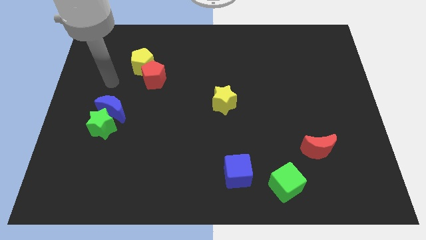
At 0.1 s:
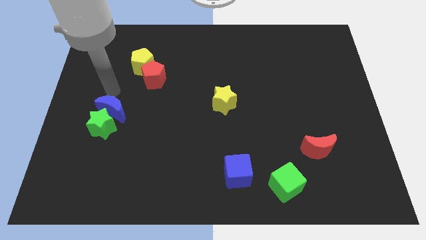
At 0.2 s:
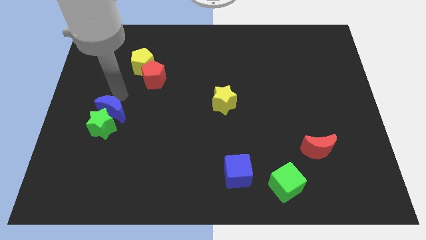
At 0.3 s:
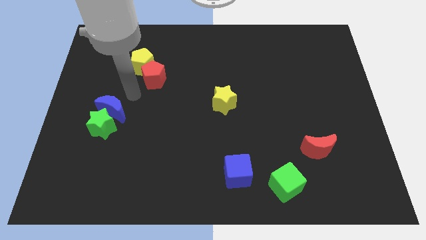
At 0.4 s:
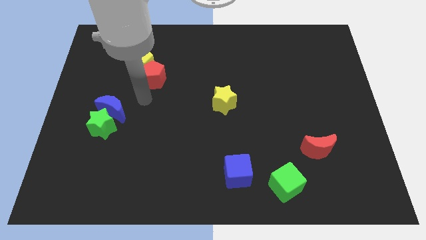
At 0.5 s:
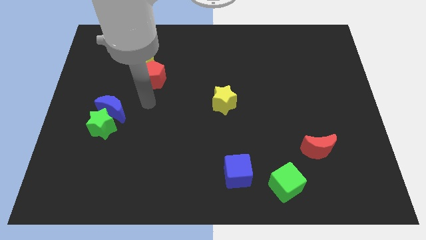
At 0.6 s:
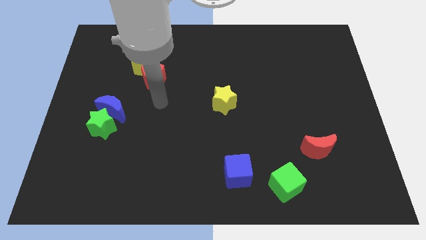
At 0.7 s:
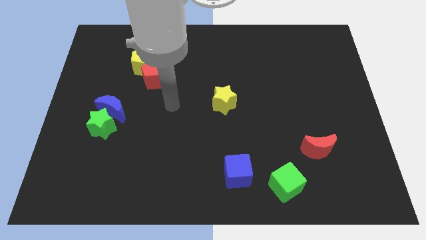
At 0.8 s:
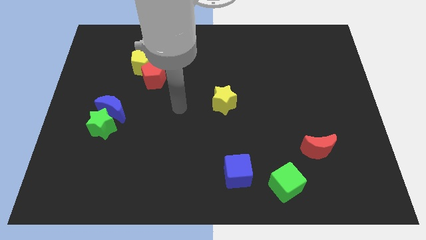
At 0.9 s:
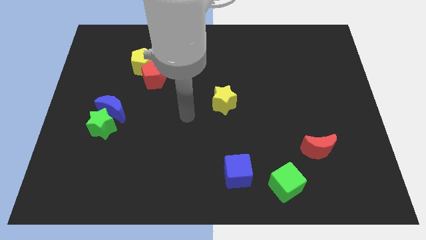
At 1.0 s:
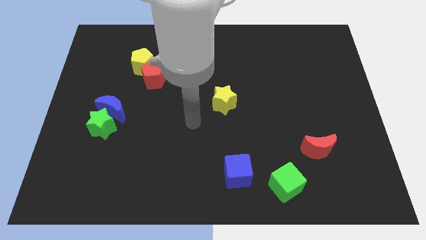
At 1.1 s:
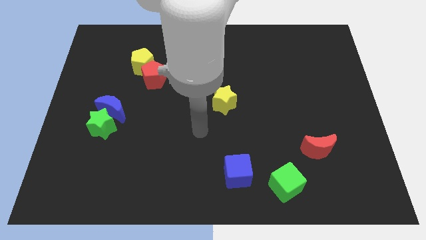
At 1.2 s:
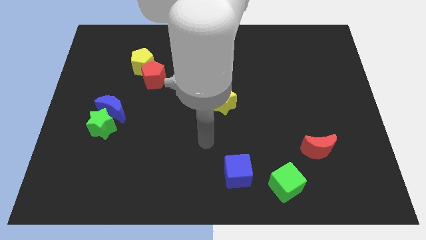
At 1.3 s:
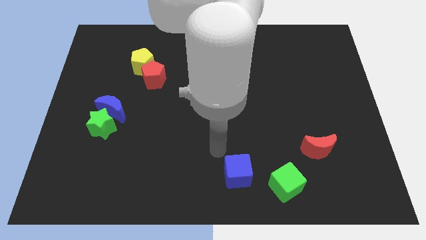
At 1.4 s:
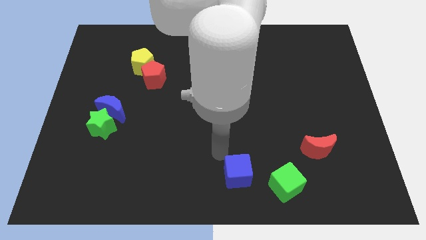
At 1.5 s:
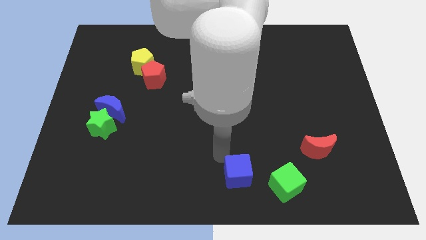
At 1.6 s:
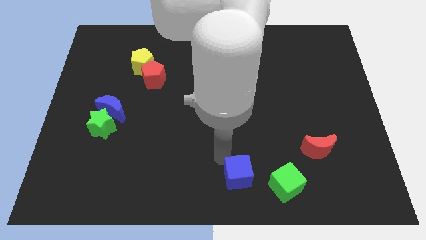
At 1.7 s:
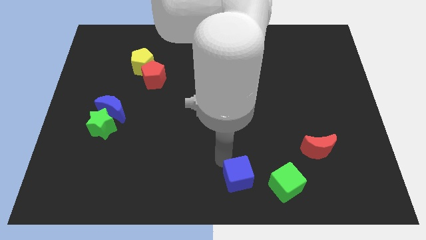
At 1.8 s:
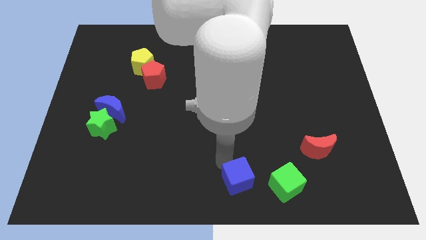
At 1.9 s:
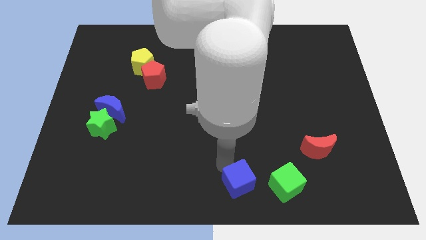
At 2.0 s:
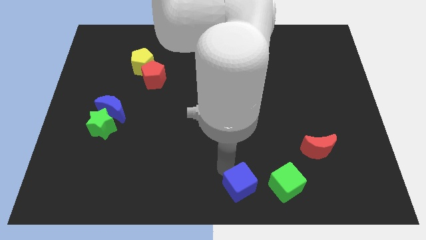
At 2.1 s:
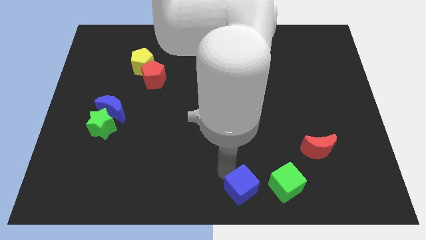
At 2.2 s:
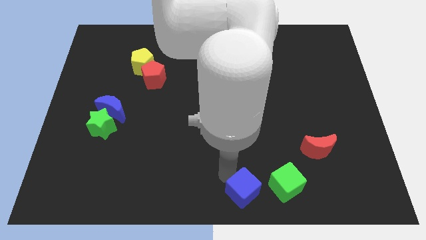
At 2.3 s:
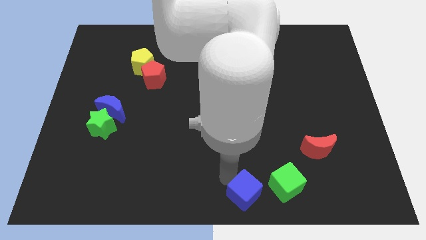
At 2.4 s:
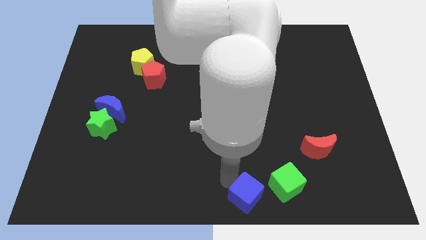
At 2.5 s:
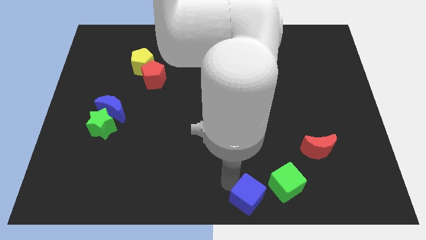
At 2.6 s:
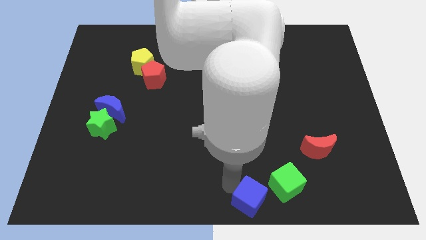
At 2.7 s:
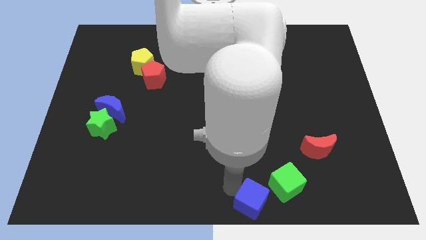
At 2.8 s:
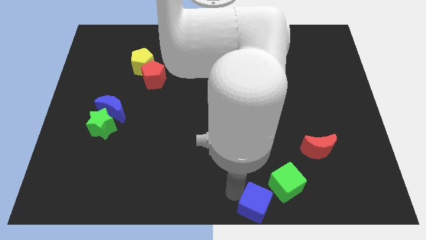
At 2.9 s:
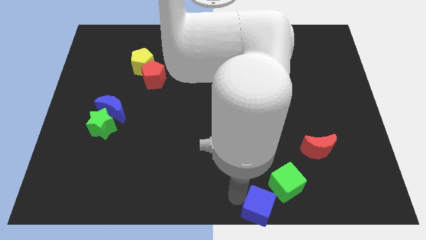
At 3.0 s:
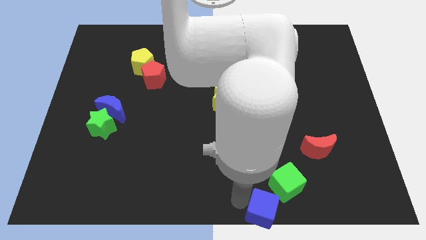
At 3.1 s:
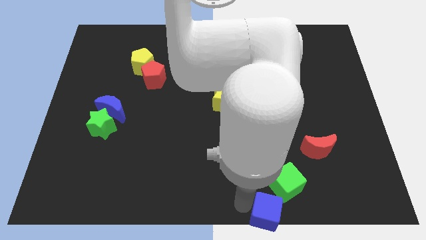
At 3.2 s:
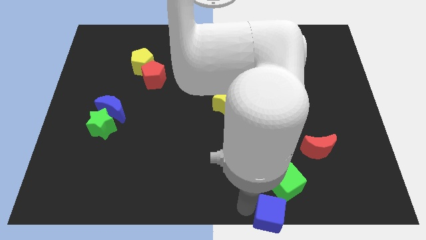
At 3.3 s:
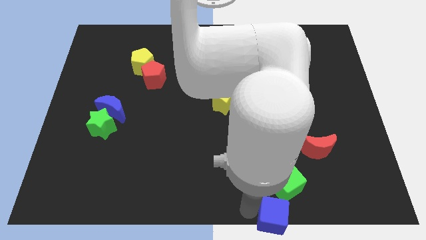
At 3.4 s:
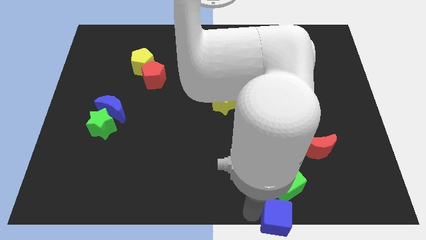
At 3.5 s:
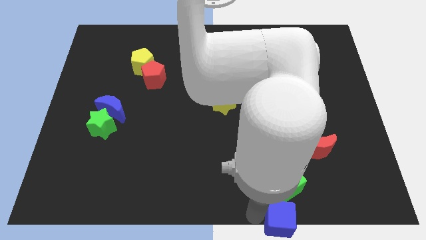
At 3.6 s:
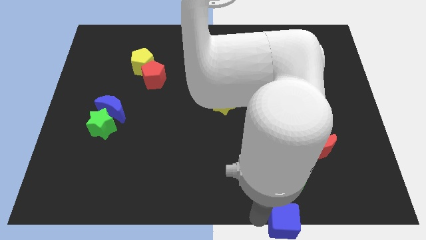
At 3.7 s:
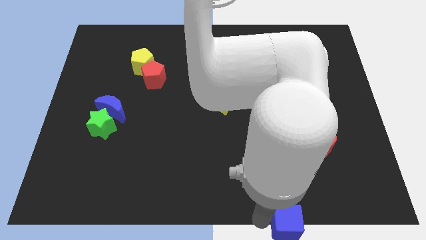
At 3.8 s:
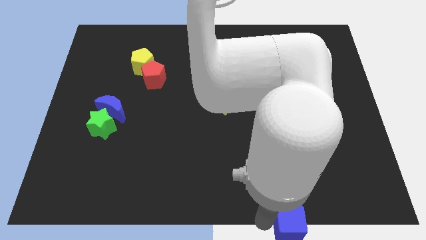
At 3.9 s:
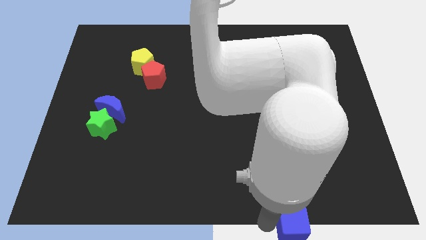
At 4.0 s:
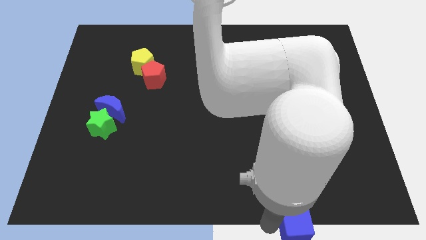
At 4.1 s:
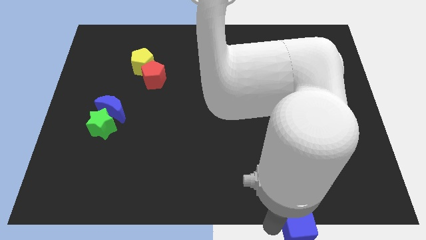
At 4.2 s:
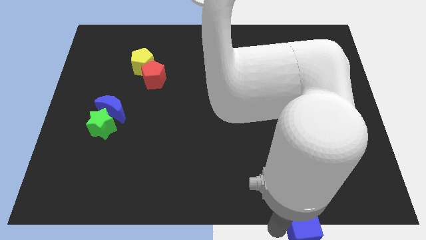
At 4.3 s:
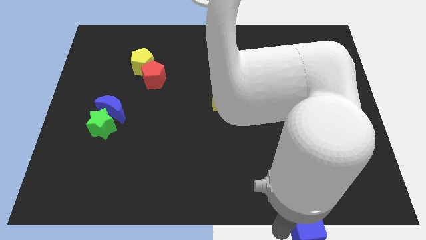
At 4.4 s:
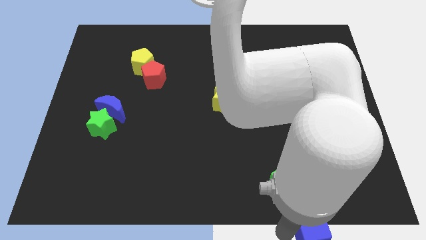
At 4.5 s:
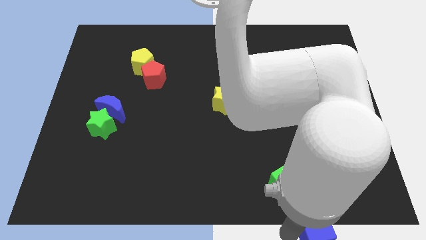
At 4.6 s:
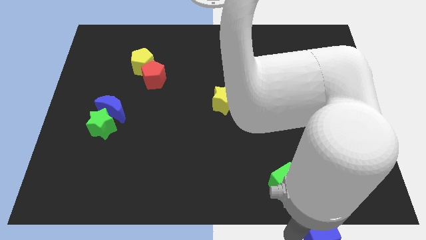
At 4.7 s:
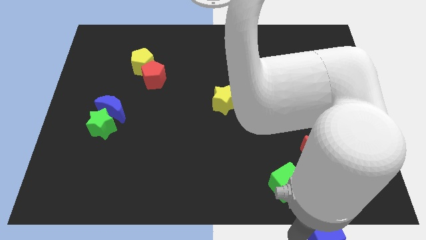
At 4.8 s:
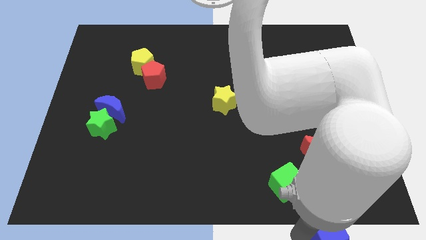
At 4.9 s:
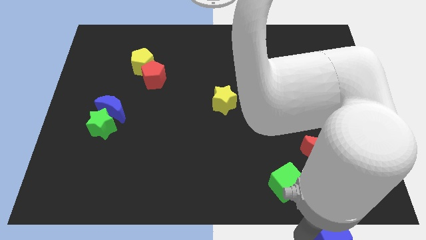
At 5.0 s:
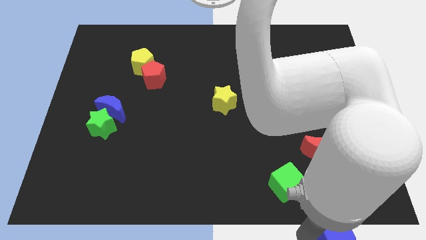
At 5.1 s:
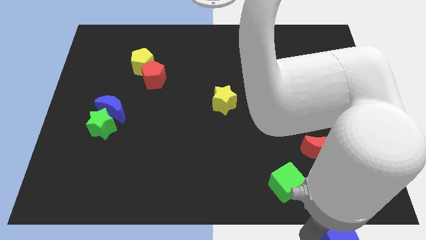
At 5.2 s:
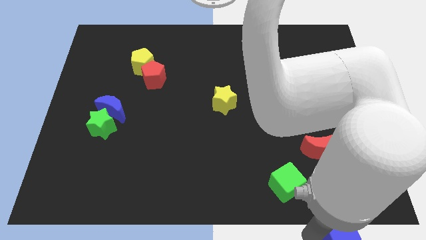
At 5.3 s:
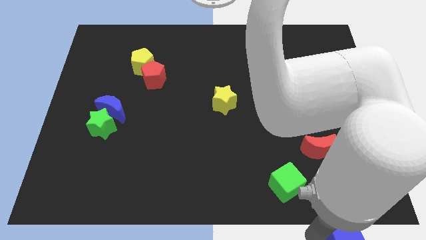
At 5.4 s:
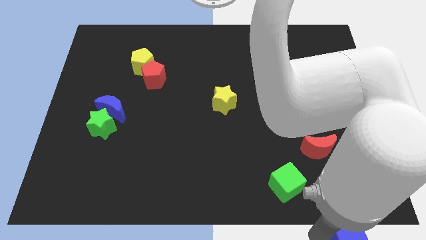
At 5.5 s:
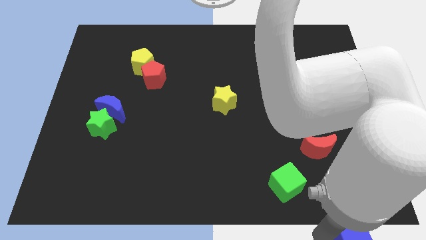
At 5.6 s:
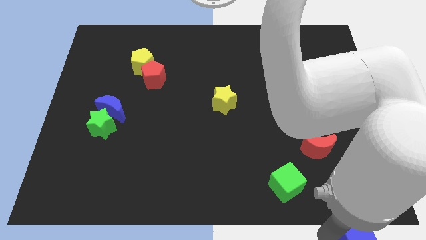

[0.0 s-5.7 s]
push the blue cube to the bottom right corner

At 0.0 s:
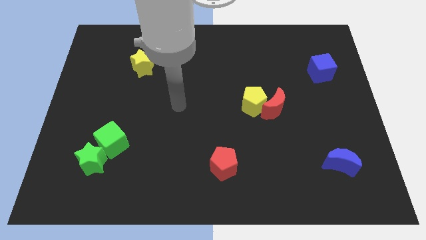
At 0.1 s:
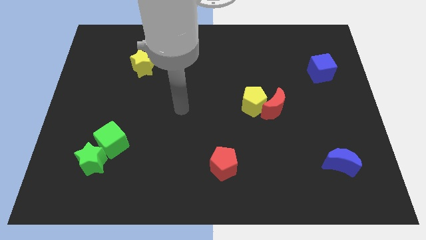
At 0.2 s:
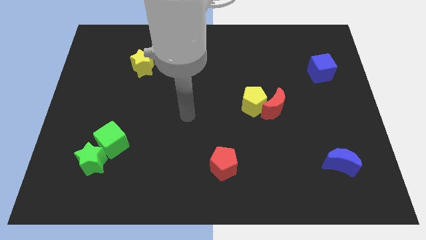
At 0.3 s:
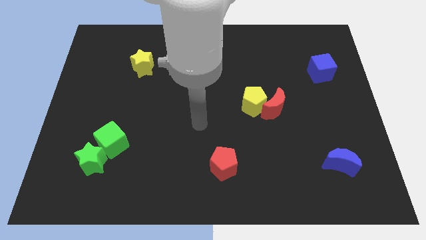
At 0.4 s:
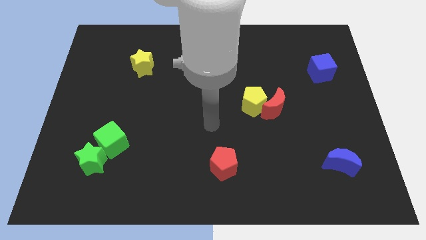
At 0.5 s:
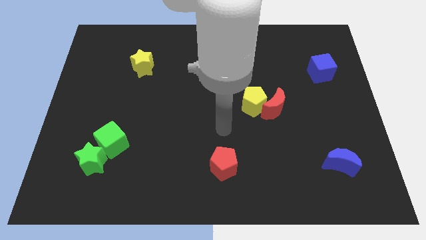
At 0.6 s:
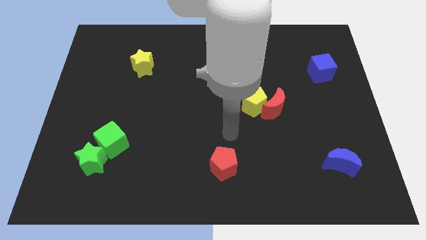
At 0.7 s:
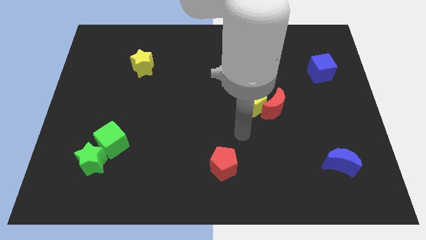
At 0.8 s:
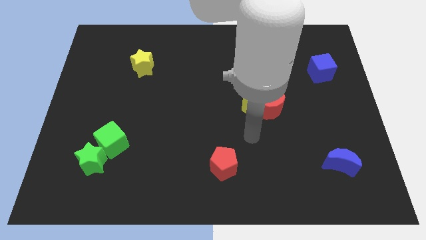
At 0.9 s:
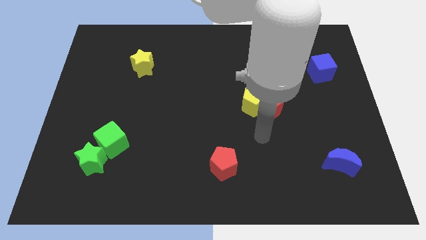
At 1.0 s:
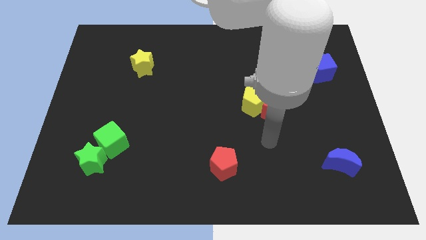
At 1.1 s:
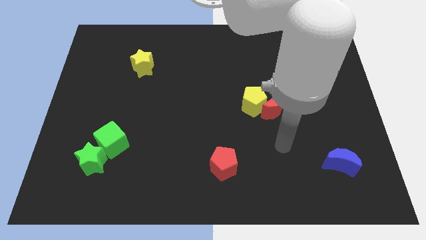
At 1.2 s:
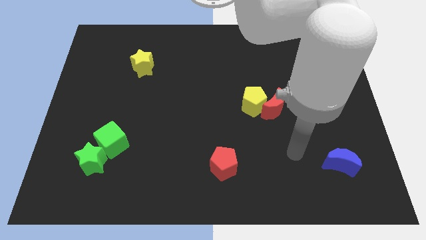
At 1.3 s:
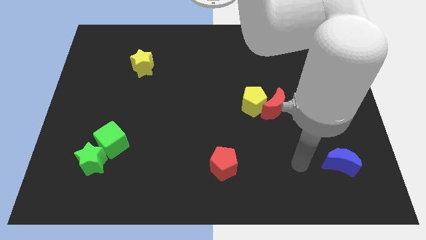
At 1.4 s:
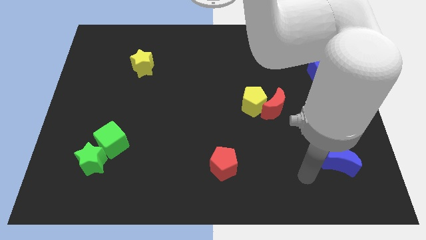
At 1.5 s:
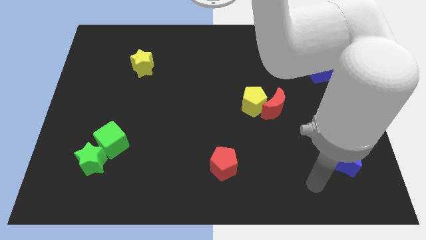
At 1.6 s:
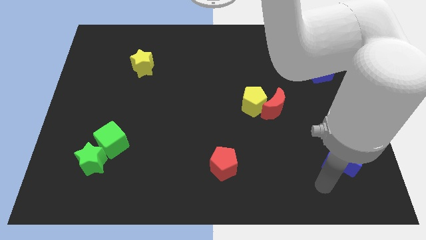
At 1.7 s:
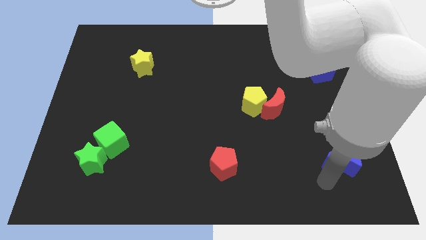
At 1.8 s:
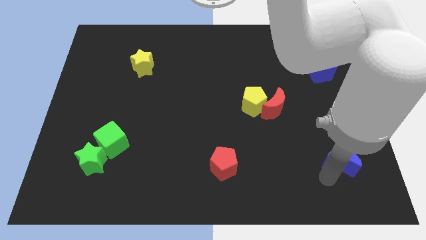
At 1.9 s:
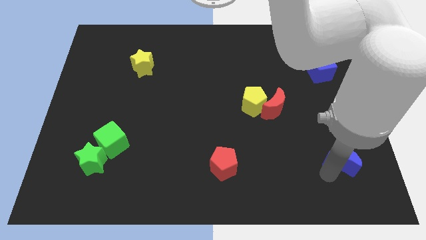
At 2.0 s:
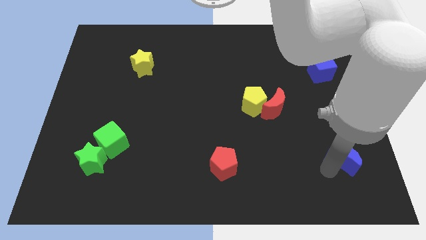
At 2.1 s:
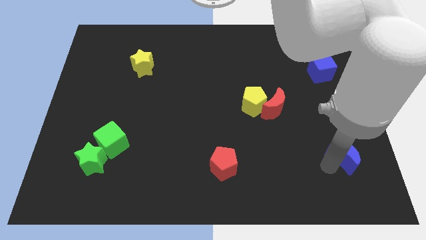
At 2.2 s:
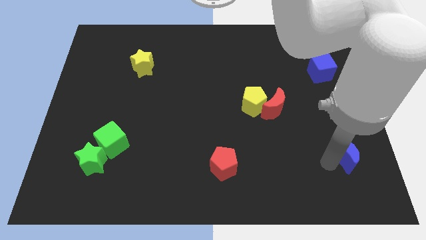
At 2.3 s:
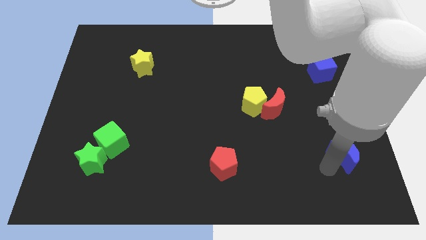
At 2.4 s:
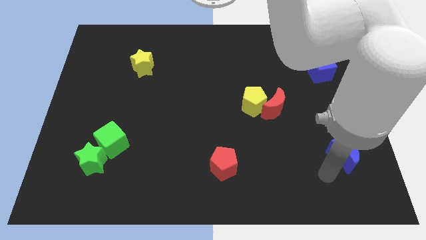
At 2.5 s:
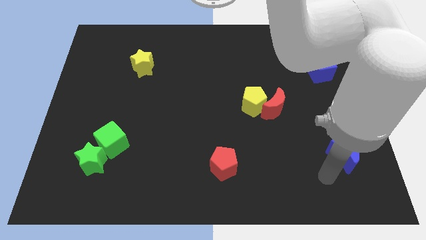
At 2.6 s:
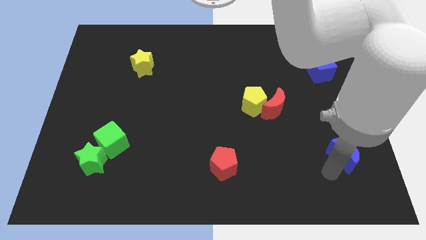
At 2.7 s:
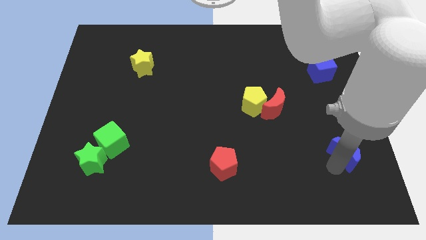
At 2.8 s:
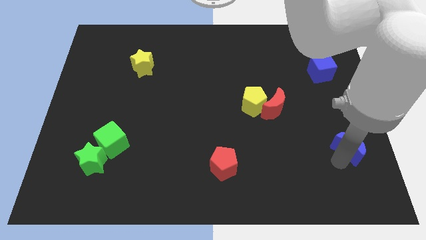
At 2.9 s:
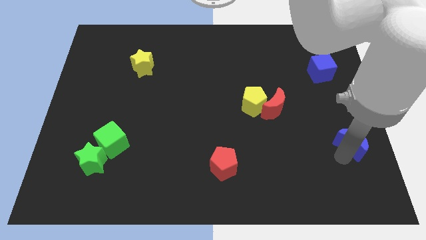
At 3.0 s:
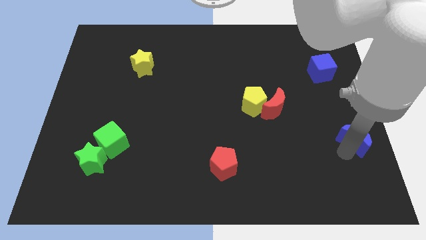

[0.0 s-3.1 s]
move the blue moon to the right side of the board
